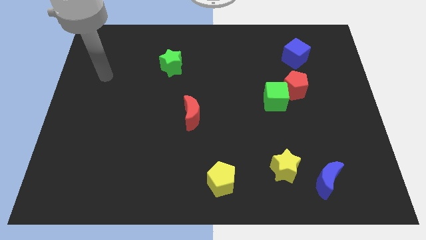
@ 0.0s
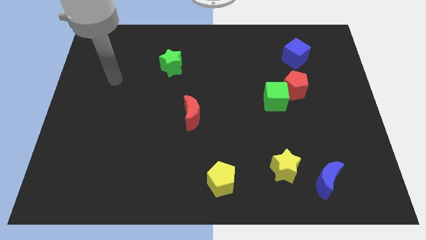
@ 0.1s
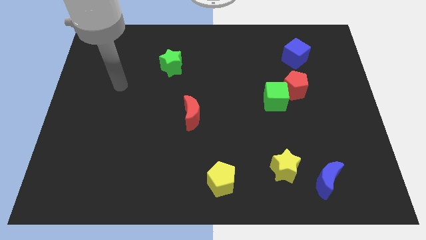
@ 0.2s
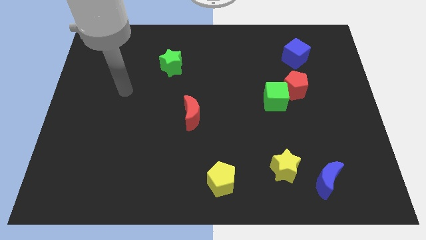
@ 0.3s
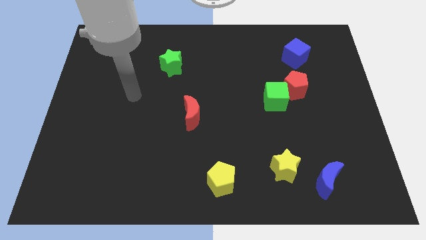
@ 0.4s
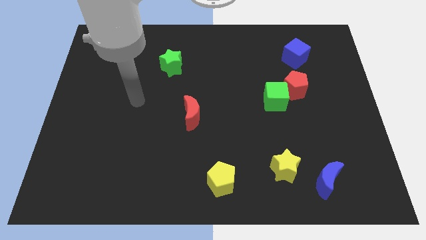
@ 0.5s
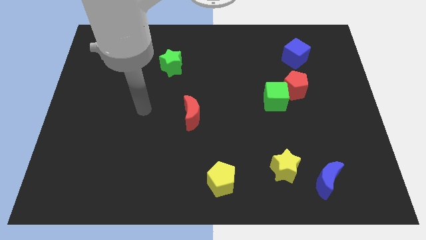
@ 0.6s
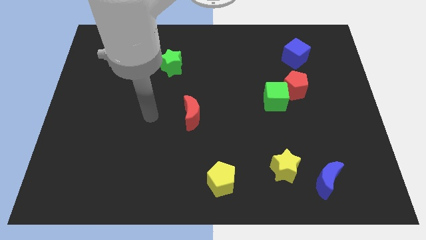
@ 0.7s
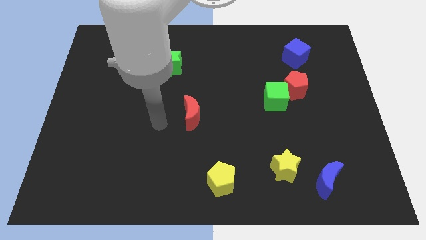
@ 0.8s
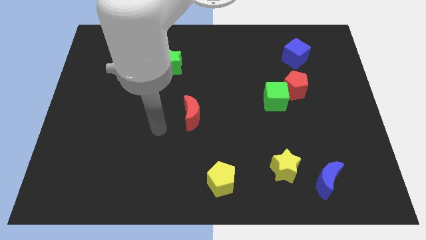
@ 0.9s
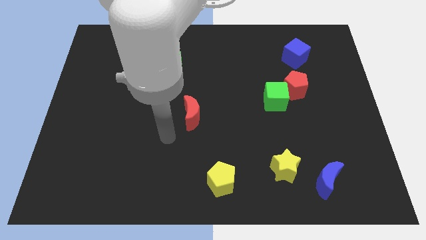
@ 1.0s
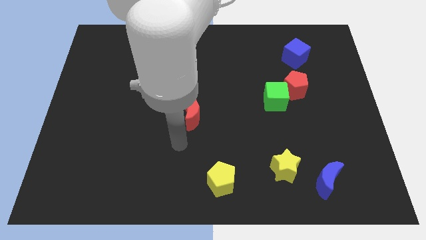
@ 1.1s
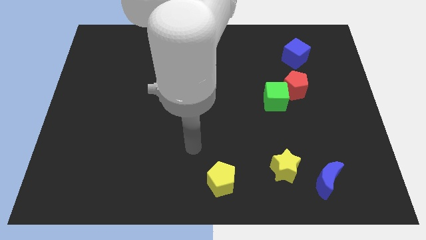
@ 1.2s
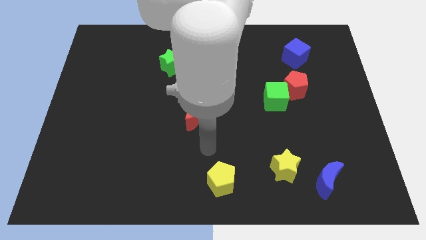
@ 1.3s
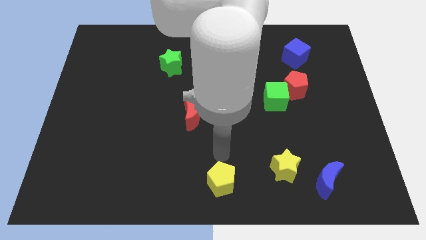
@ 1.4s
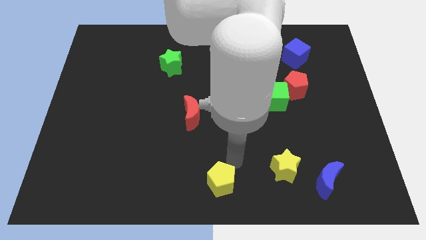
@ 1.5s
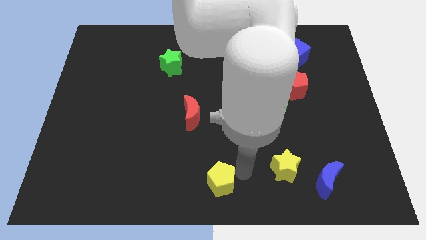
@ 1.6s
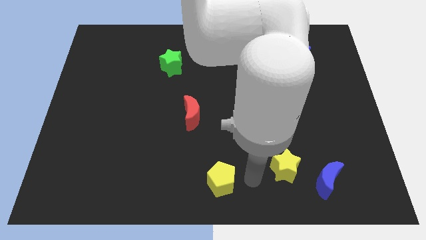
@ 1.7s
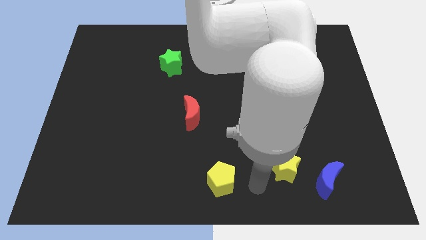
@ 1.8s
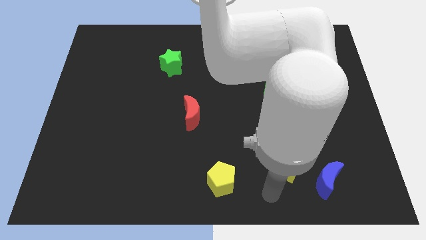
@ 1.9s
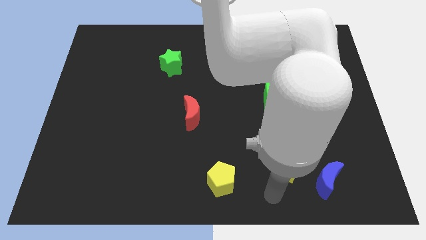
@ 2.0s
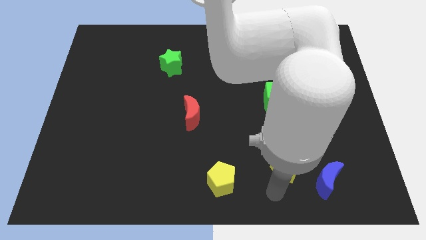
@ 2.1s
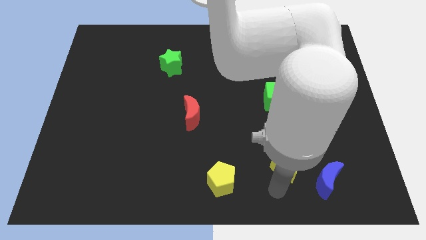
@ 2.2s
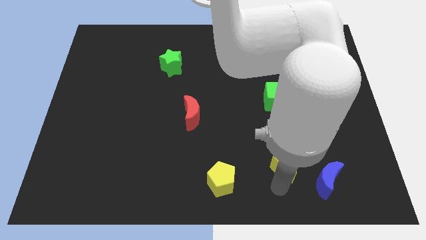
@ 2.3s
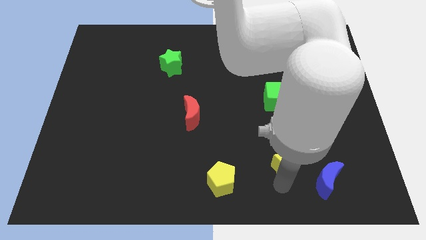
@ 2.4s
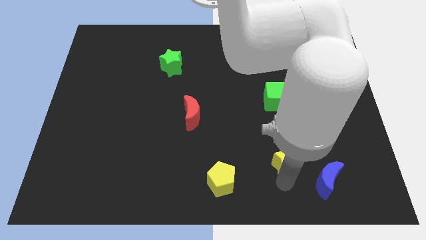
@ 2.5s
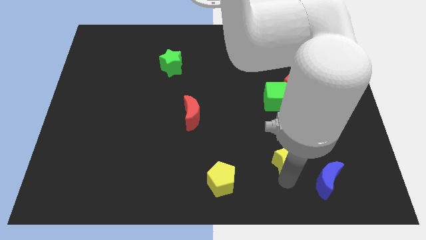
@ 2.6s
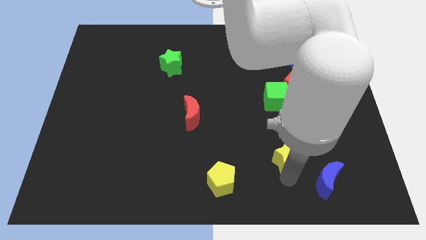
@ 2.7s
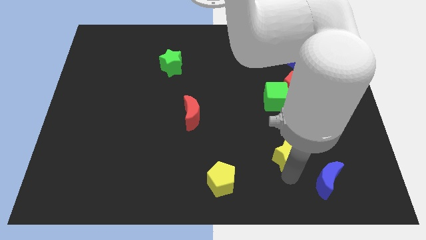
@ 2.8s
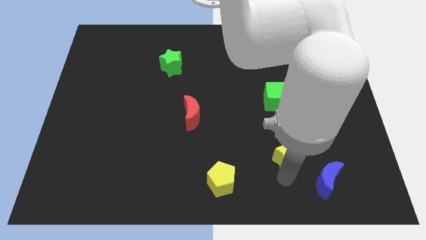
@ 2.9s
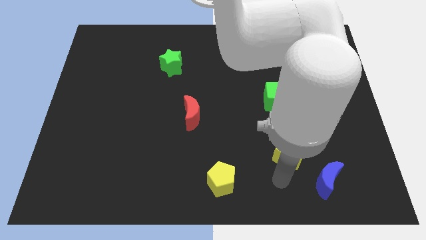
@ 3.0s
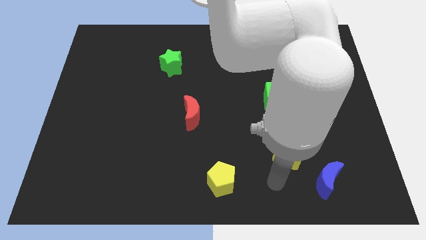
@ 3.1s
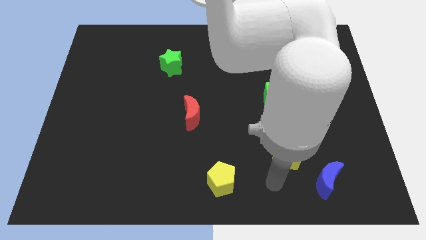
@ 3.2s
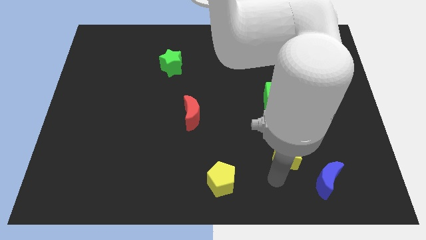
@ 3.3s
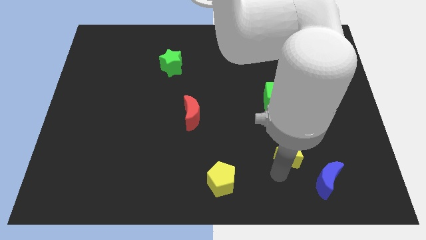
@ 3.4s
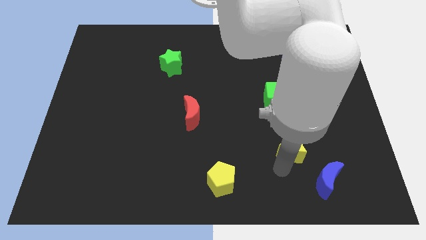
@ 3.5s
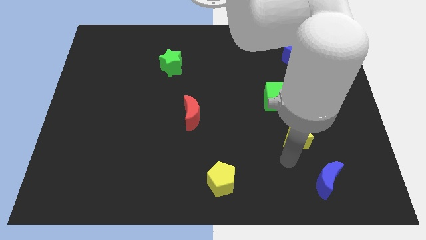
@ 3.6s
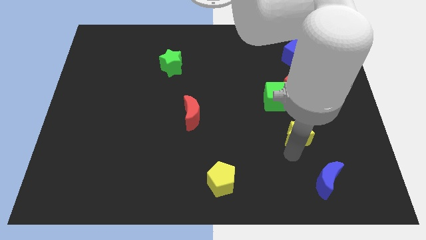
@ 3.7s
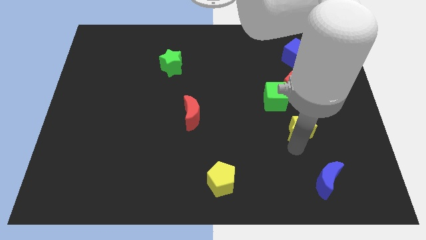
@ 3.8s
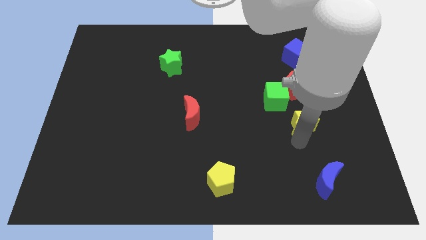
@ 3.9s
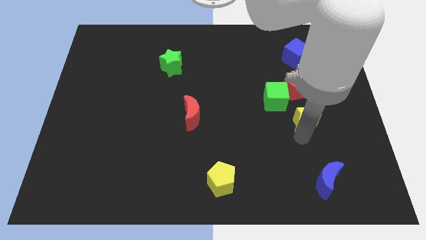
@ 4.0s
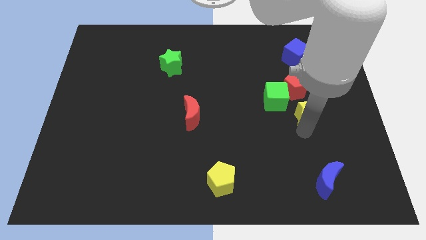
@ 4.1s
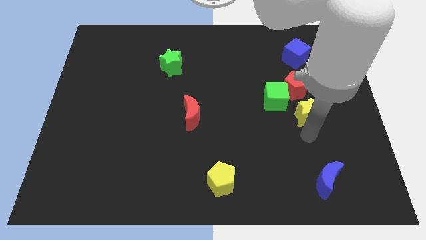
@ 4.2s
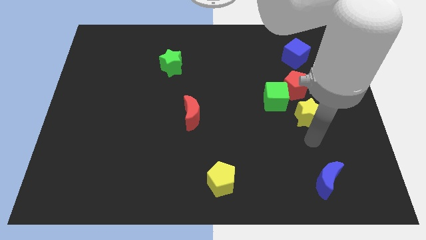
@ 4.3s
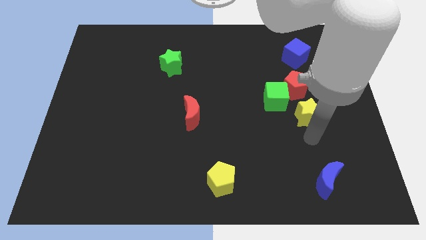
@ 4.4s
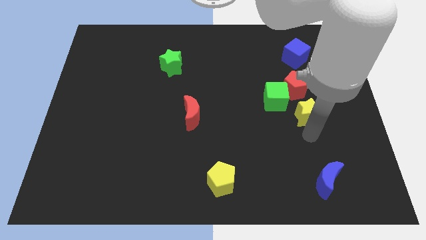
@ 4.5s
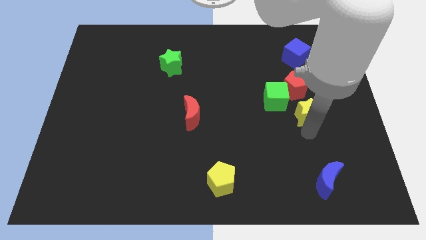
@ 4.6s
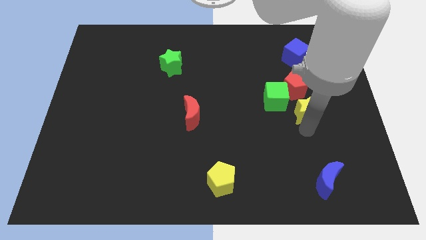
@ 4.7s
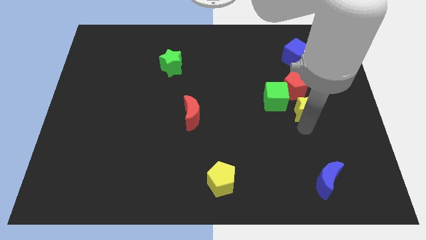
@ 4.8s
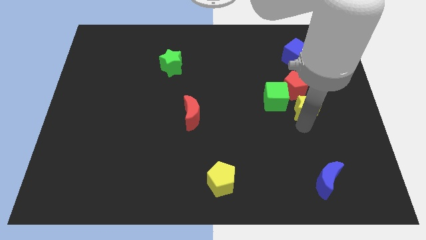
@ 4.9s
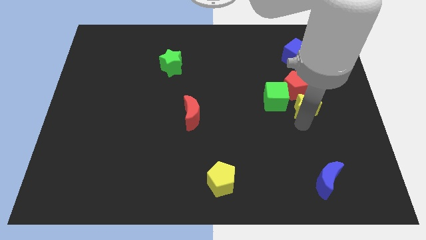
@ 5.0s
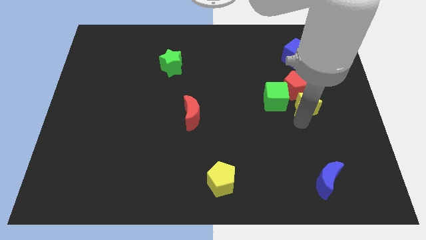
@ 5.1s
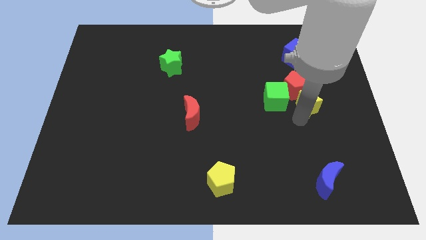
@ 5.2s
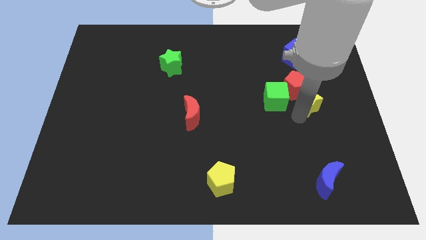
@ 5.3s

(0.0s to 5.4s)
push the yellow star to the bottom of the blue cube

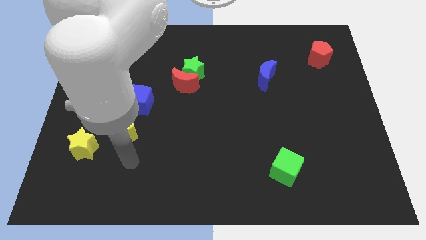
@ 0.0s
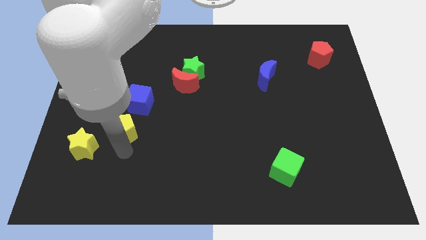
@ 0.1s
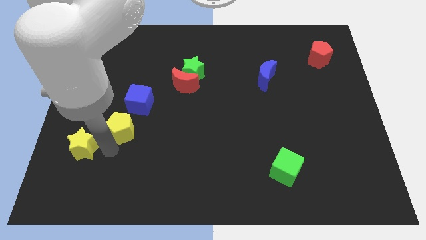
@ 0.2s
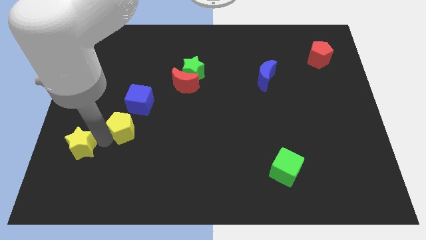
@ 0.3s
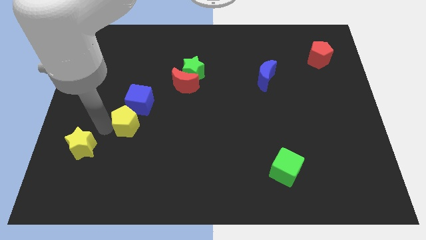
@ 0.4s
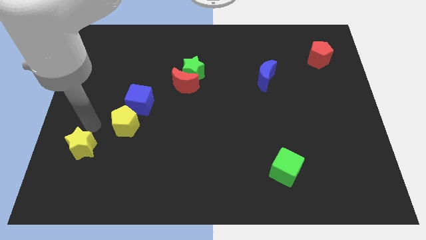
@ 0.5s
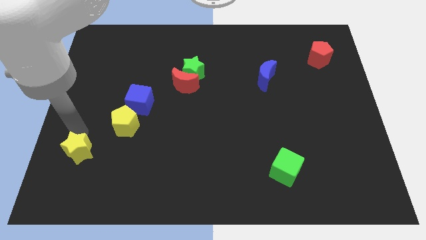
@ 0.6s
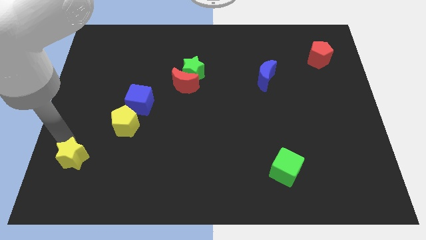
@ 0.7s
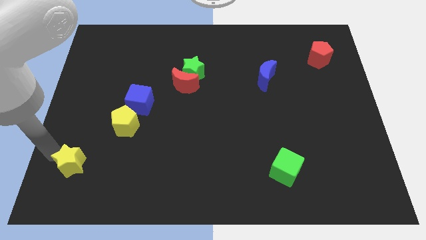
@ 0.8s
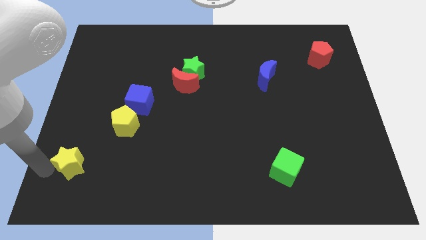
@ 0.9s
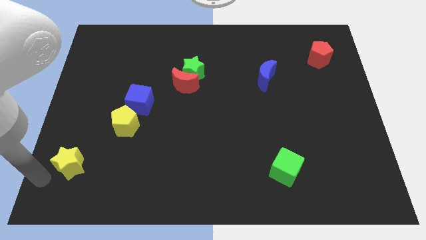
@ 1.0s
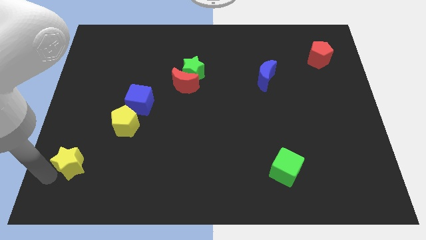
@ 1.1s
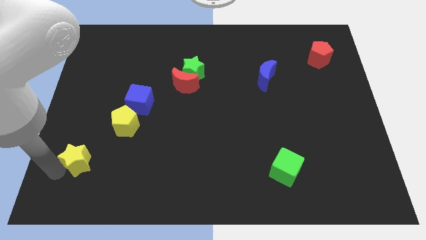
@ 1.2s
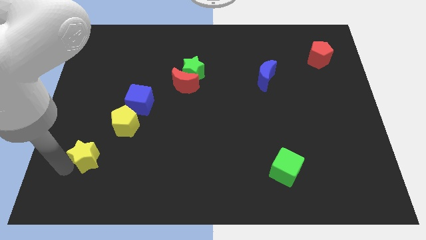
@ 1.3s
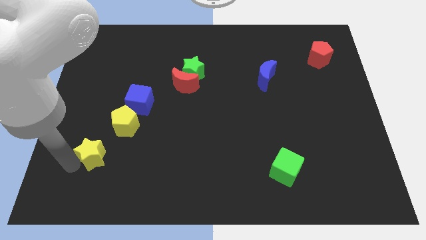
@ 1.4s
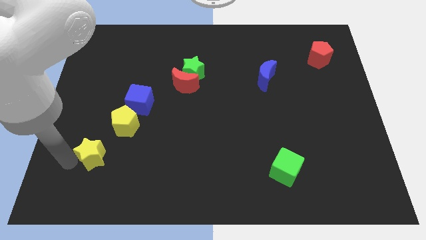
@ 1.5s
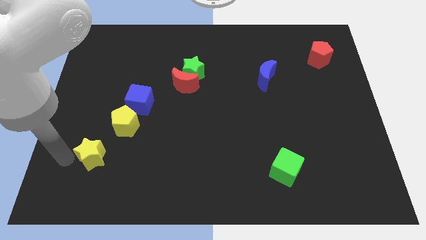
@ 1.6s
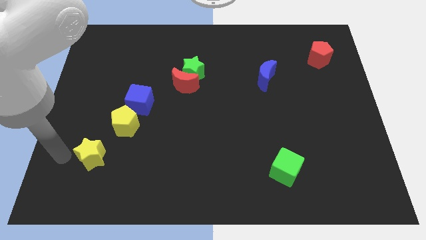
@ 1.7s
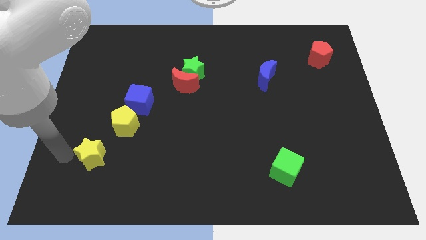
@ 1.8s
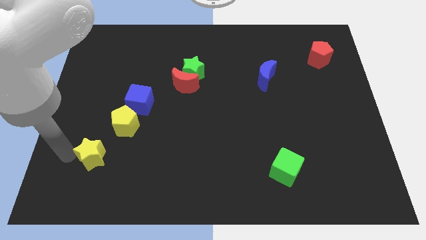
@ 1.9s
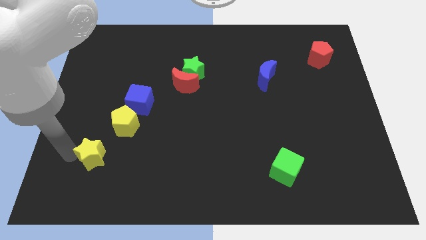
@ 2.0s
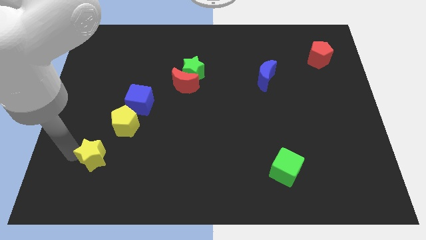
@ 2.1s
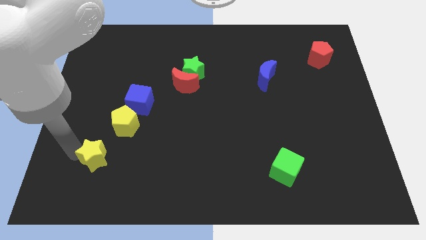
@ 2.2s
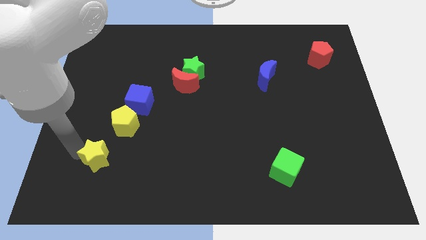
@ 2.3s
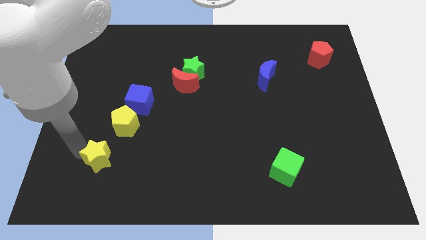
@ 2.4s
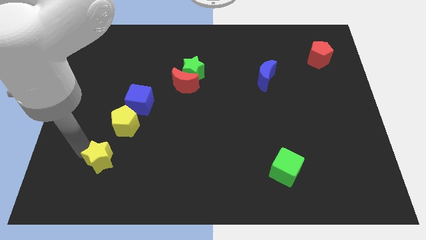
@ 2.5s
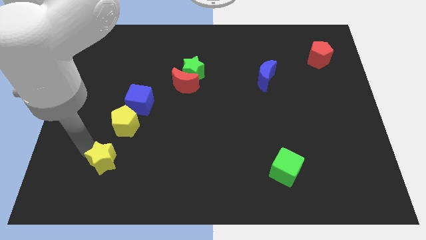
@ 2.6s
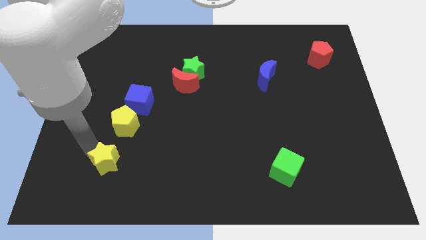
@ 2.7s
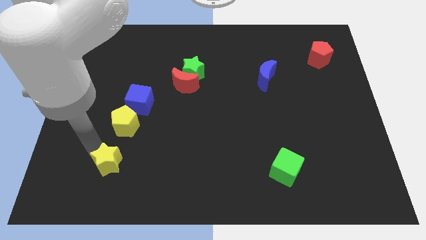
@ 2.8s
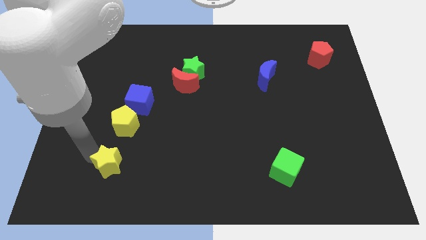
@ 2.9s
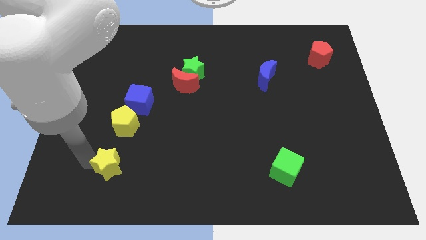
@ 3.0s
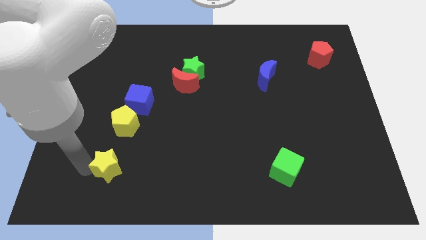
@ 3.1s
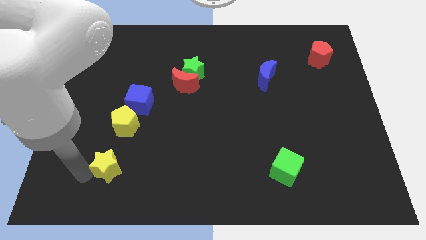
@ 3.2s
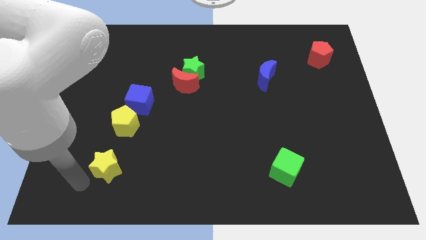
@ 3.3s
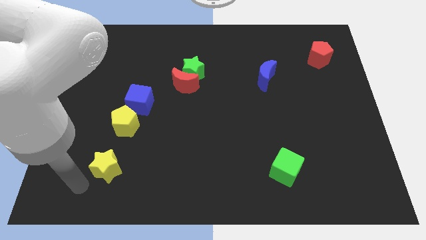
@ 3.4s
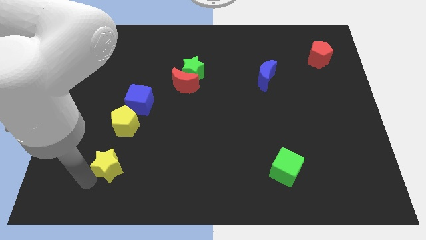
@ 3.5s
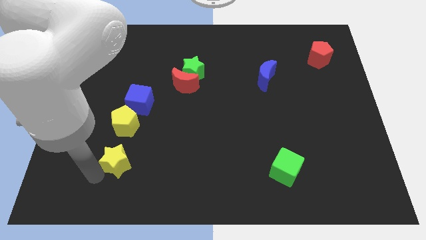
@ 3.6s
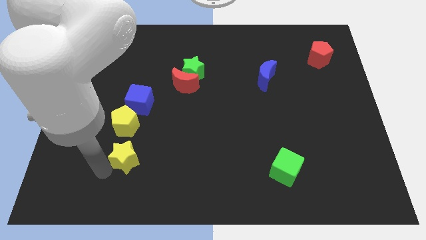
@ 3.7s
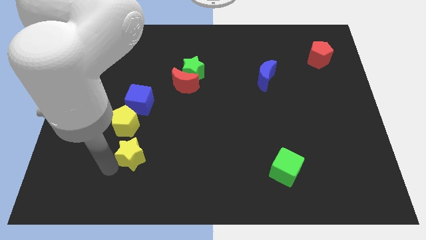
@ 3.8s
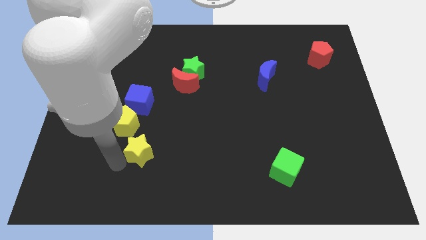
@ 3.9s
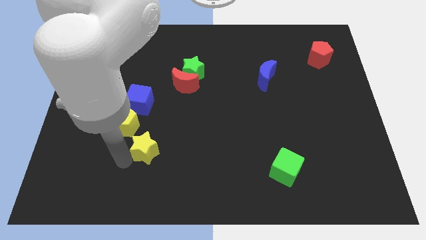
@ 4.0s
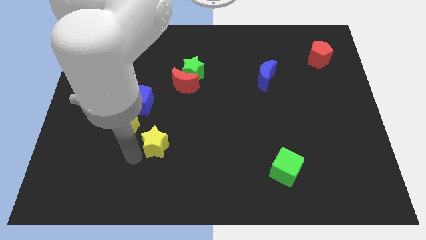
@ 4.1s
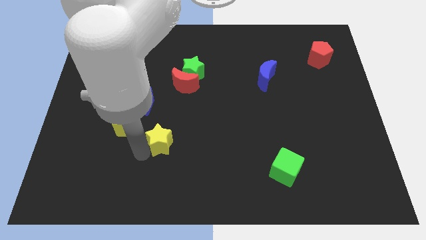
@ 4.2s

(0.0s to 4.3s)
push the yellow star just right of the yellow pentagon
